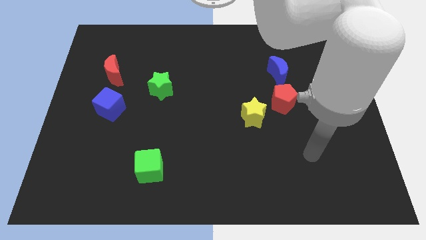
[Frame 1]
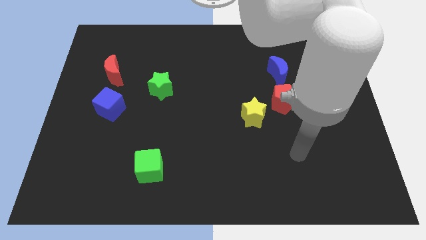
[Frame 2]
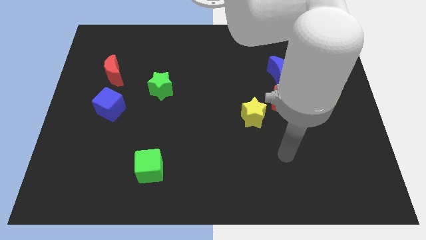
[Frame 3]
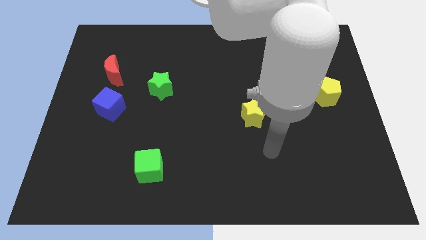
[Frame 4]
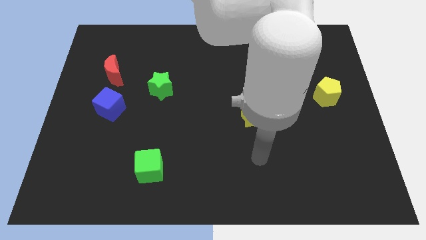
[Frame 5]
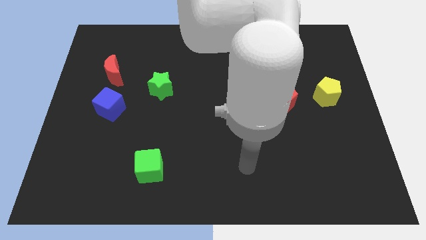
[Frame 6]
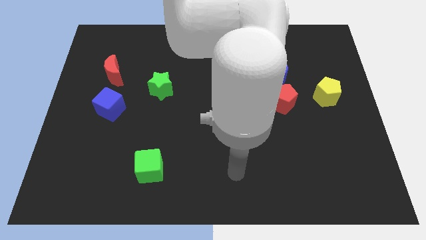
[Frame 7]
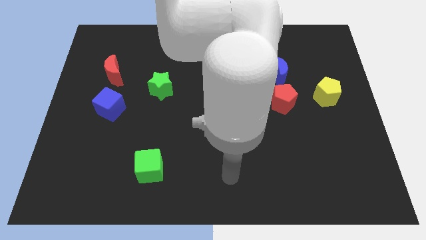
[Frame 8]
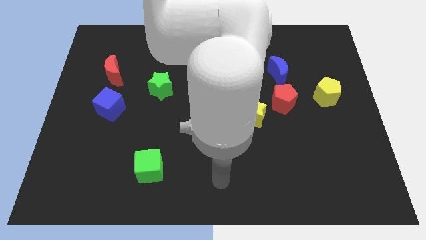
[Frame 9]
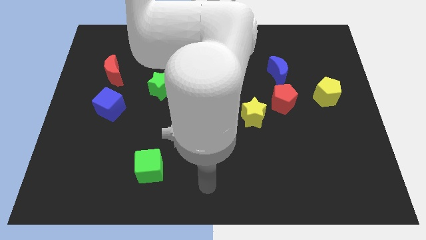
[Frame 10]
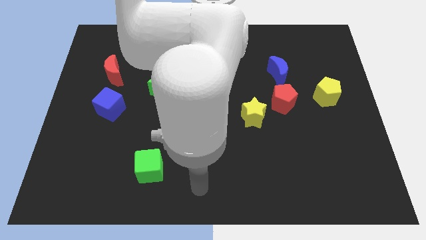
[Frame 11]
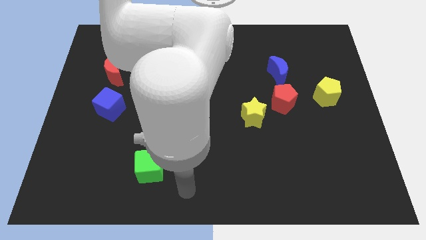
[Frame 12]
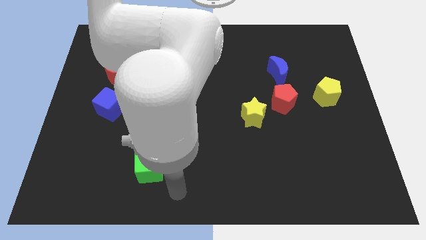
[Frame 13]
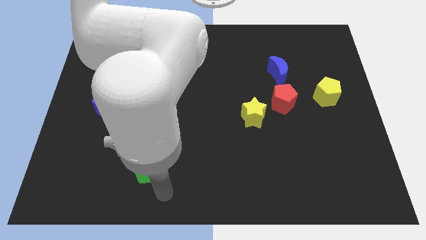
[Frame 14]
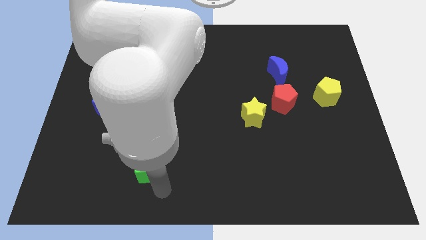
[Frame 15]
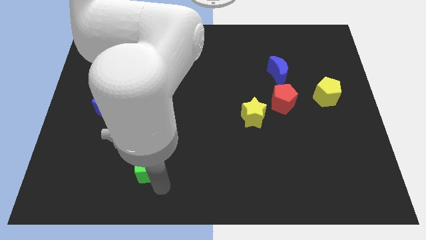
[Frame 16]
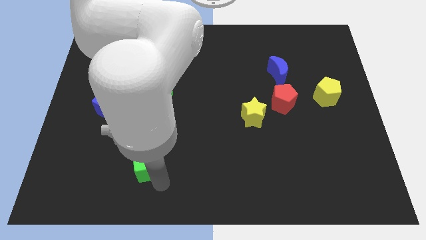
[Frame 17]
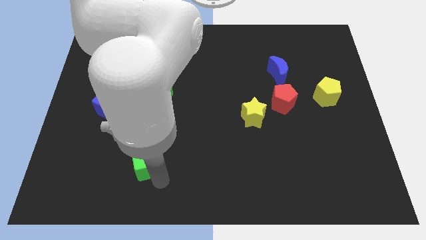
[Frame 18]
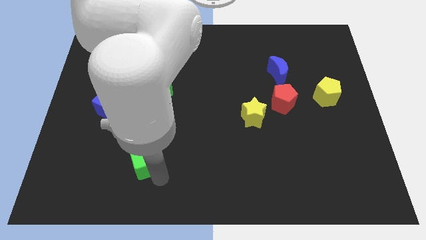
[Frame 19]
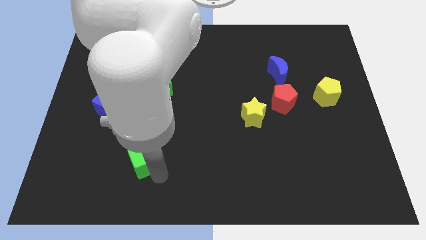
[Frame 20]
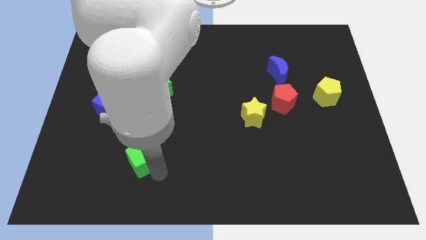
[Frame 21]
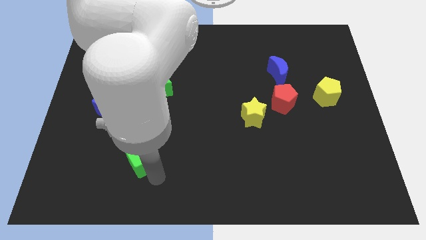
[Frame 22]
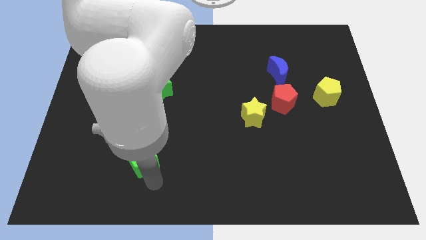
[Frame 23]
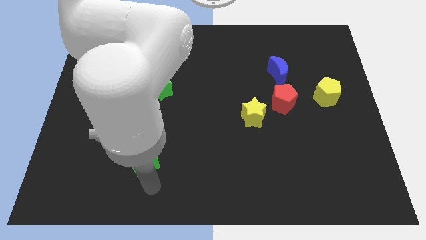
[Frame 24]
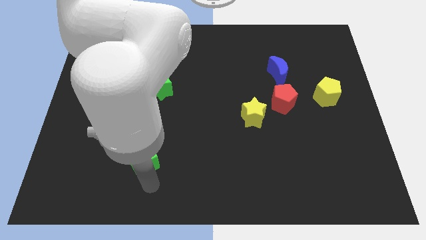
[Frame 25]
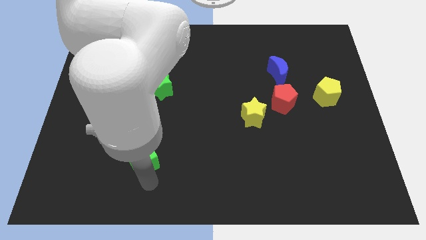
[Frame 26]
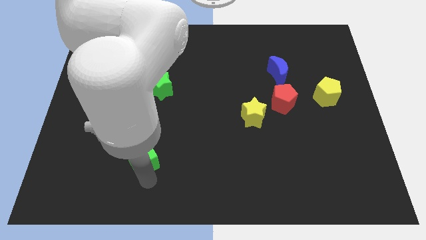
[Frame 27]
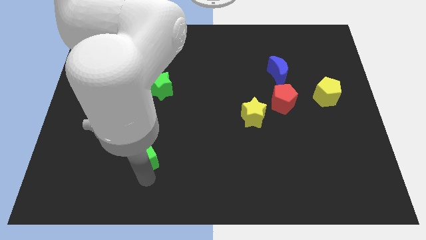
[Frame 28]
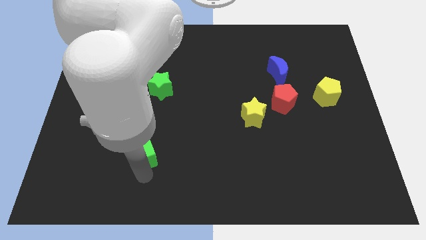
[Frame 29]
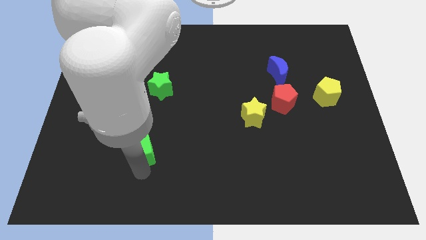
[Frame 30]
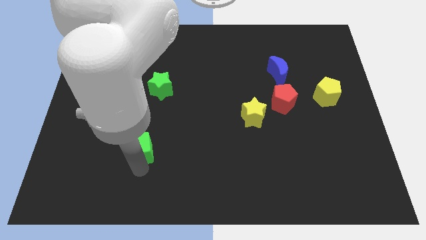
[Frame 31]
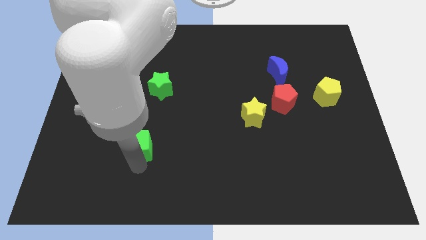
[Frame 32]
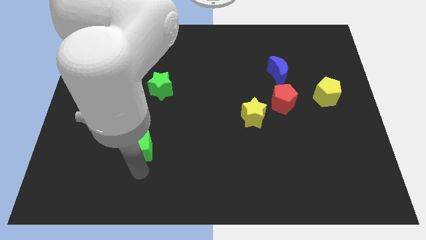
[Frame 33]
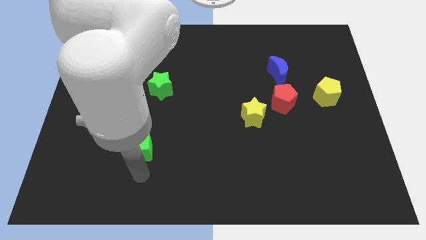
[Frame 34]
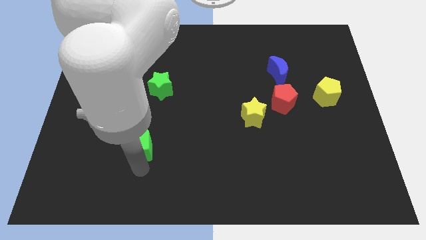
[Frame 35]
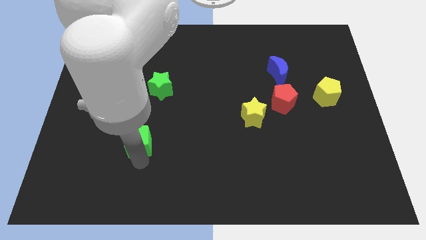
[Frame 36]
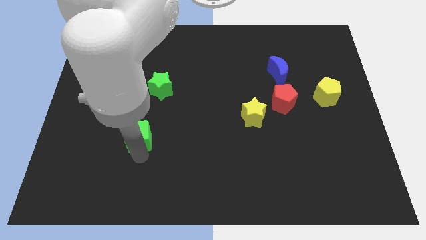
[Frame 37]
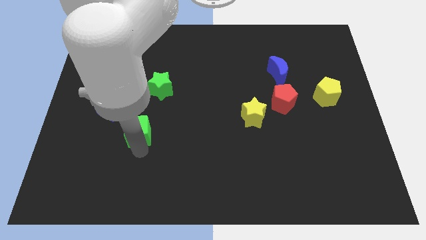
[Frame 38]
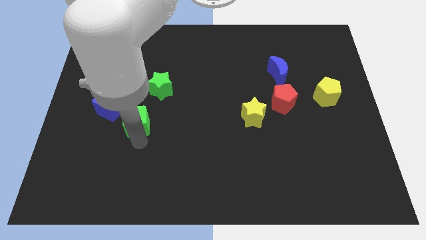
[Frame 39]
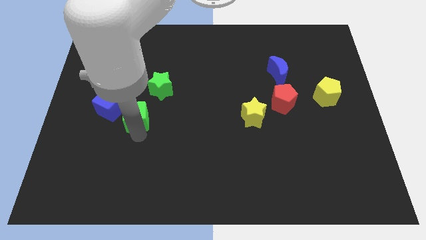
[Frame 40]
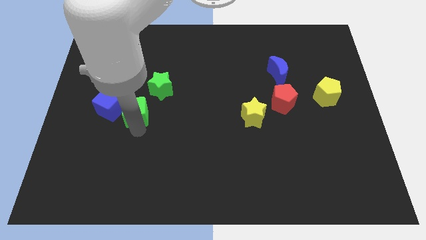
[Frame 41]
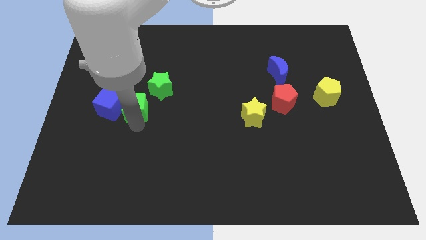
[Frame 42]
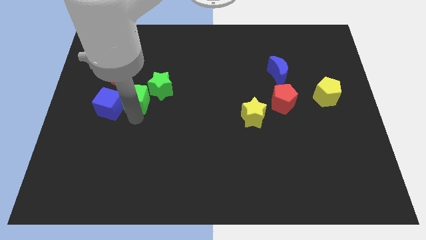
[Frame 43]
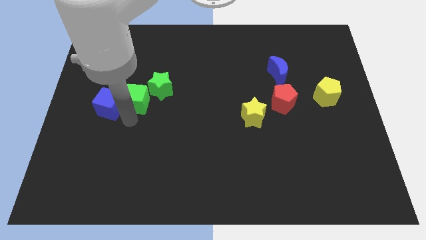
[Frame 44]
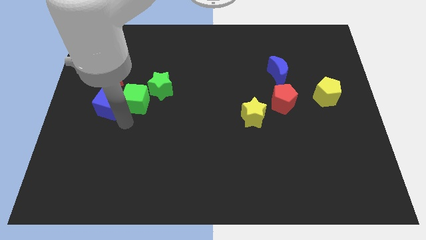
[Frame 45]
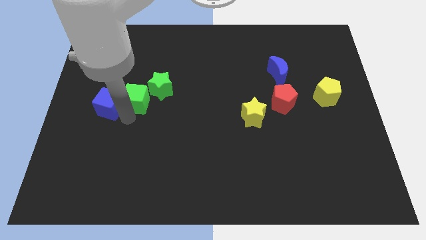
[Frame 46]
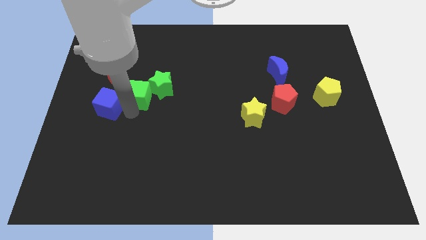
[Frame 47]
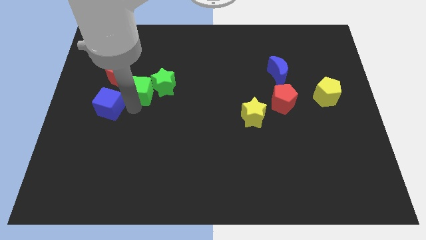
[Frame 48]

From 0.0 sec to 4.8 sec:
slide the green cube upwards

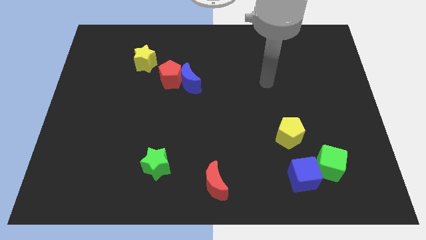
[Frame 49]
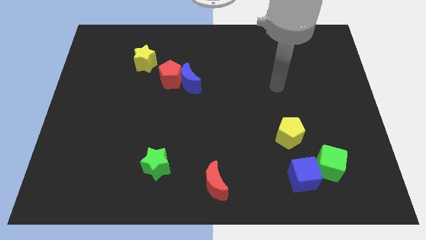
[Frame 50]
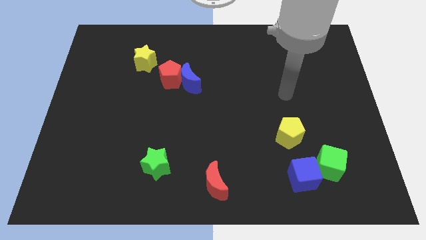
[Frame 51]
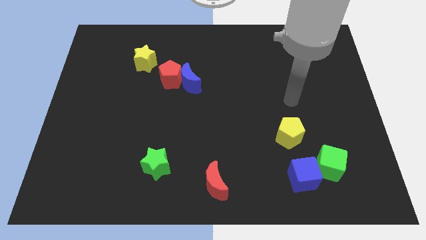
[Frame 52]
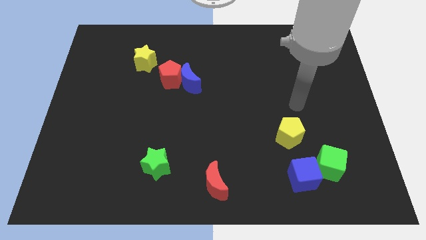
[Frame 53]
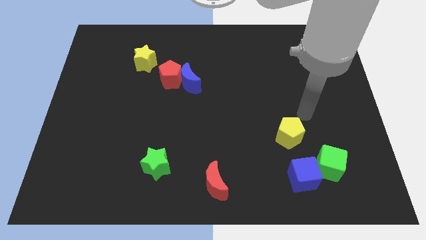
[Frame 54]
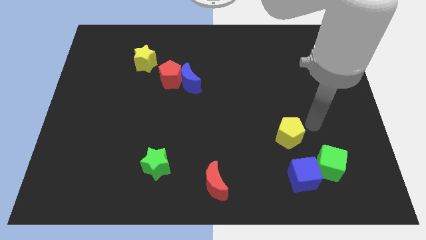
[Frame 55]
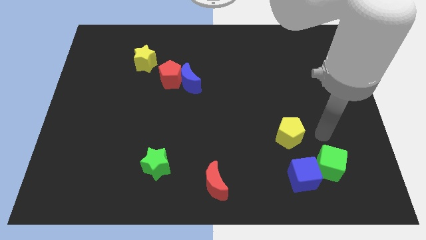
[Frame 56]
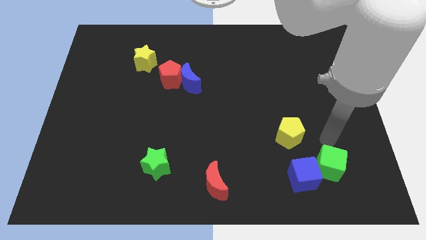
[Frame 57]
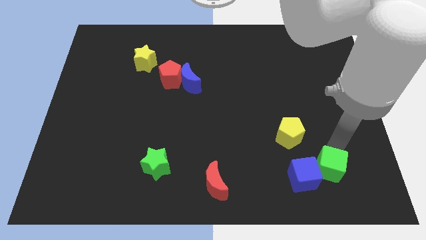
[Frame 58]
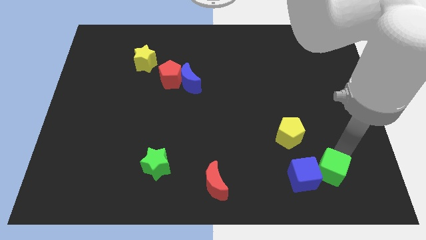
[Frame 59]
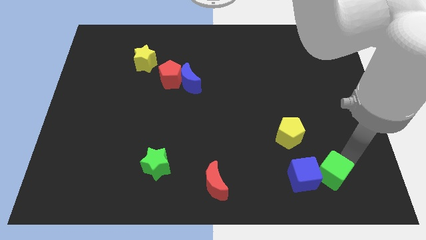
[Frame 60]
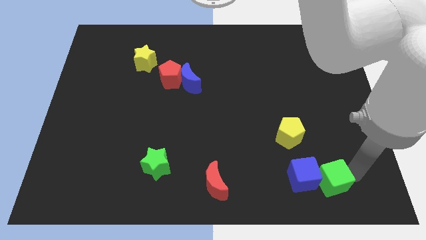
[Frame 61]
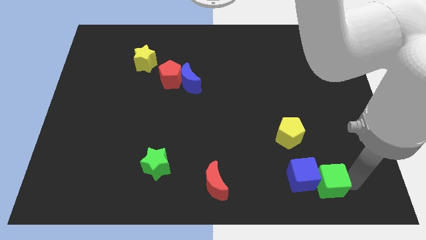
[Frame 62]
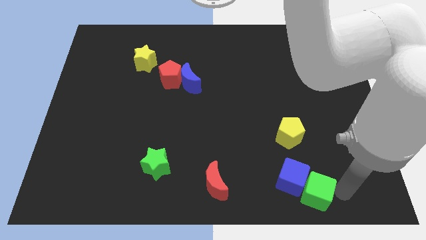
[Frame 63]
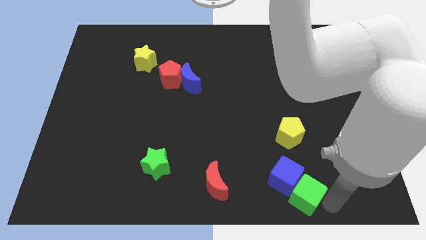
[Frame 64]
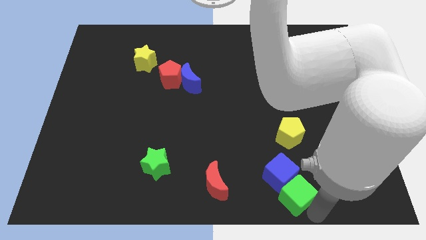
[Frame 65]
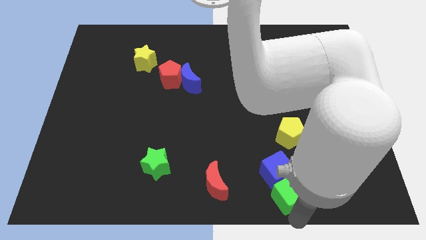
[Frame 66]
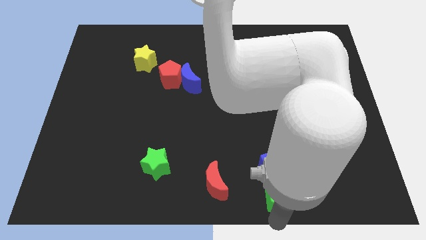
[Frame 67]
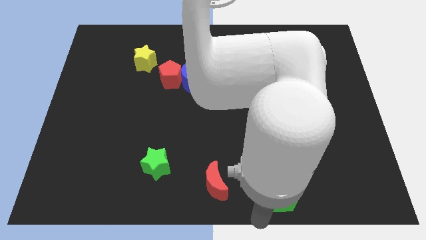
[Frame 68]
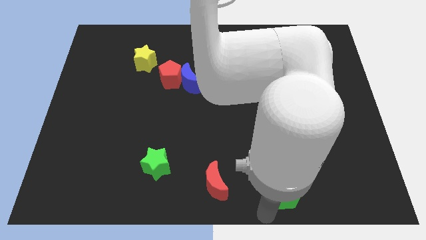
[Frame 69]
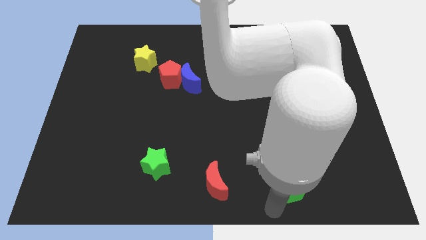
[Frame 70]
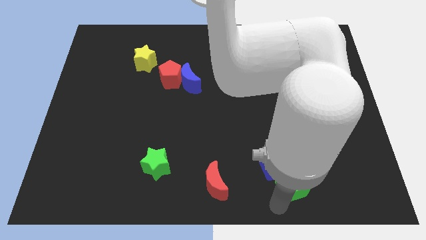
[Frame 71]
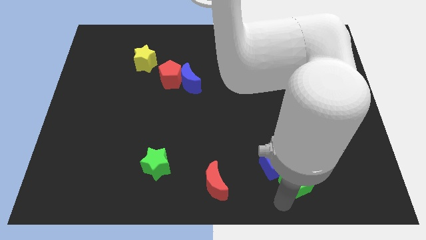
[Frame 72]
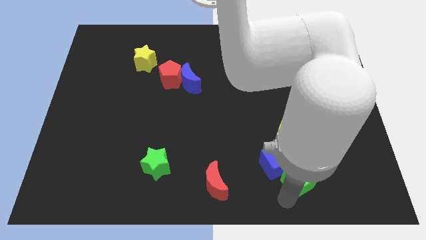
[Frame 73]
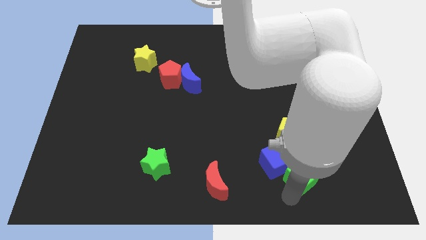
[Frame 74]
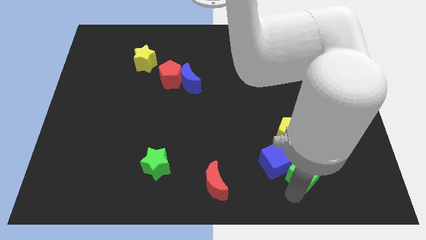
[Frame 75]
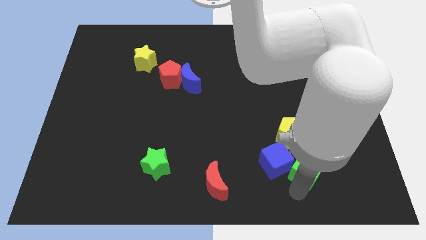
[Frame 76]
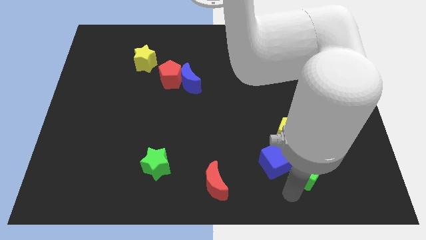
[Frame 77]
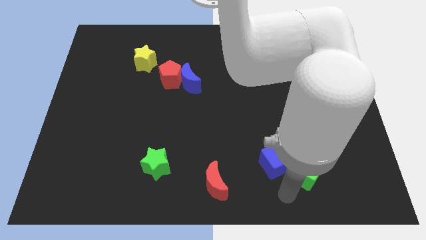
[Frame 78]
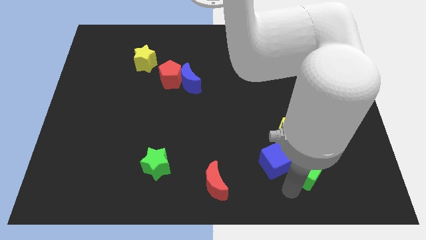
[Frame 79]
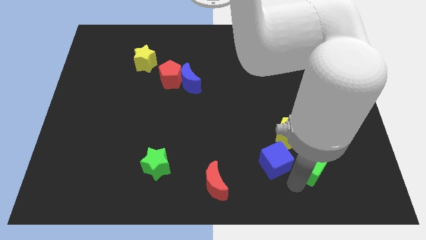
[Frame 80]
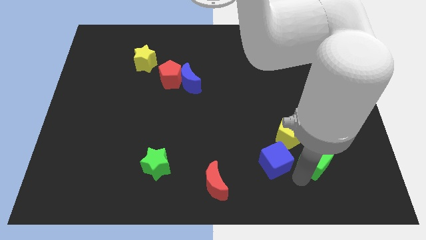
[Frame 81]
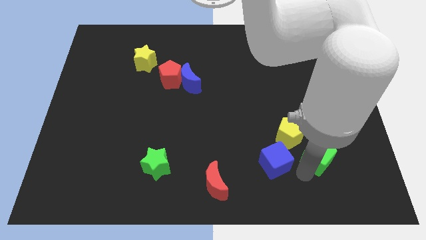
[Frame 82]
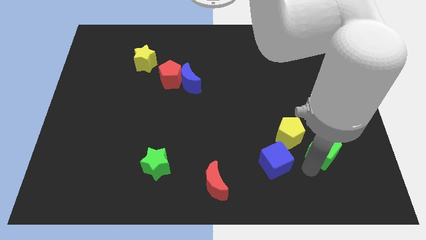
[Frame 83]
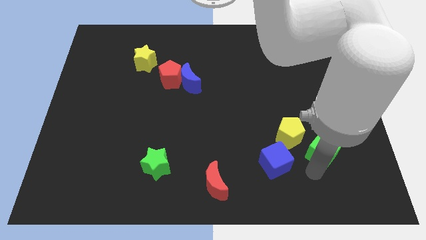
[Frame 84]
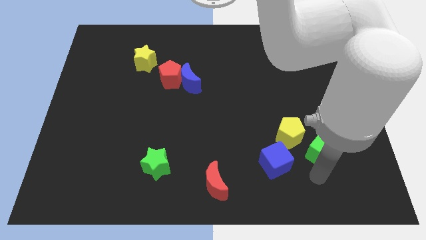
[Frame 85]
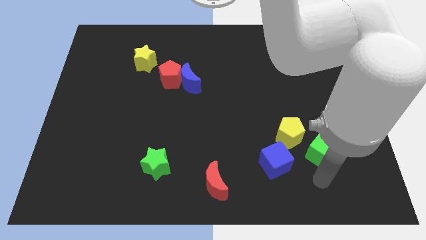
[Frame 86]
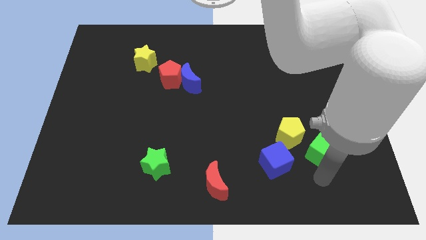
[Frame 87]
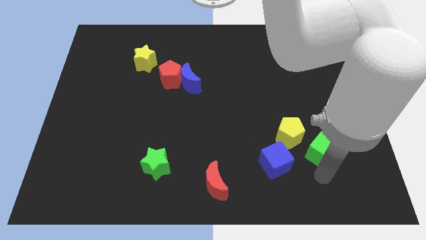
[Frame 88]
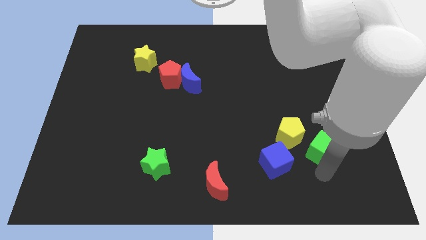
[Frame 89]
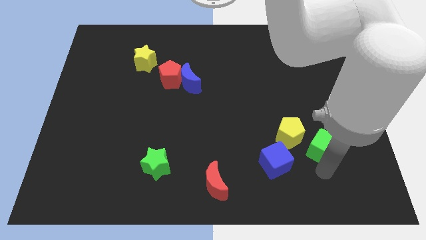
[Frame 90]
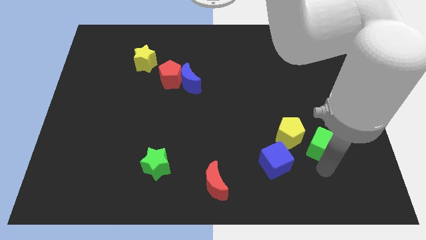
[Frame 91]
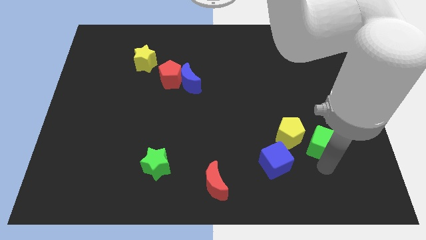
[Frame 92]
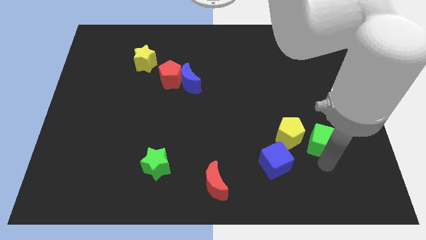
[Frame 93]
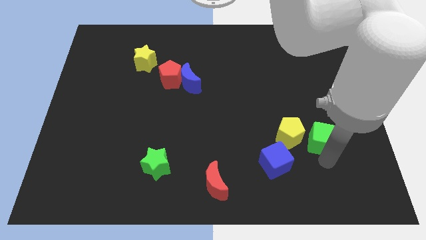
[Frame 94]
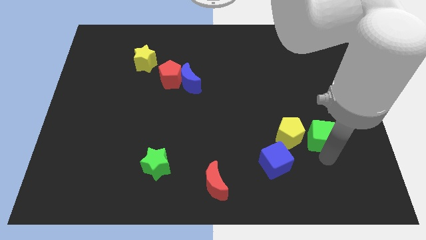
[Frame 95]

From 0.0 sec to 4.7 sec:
slightly push the green cube up
